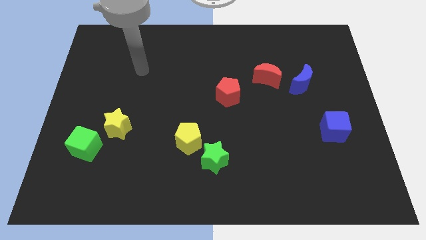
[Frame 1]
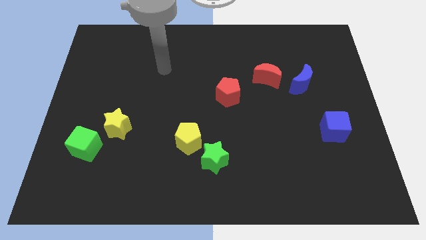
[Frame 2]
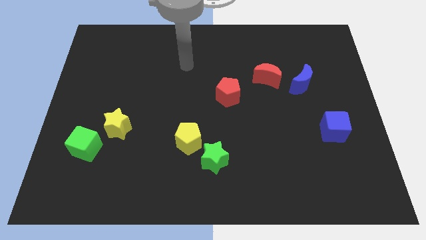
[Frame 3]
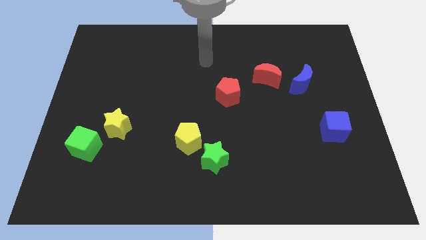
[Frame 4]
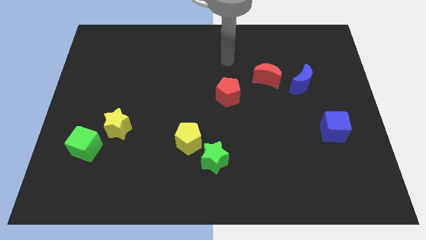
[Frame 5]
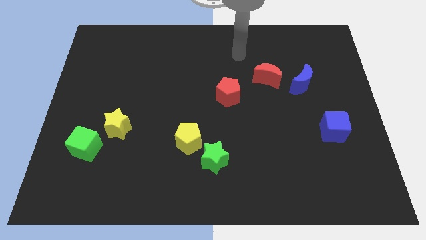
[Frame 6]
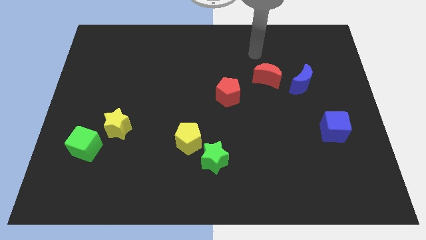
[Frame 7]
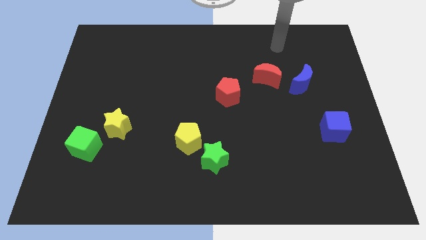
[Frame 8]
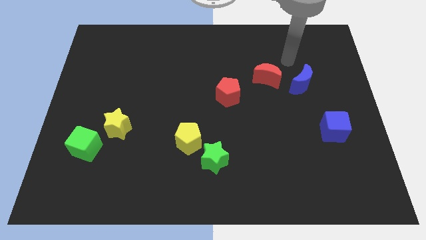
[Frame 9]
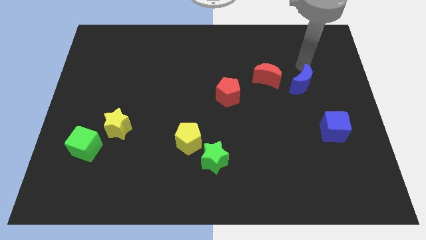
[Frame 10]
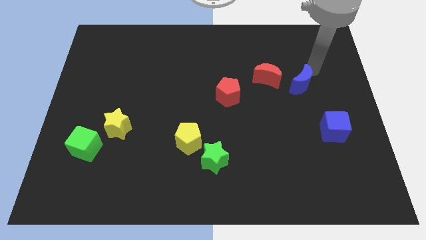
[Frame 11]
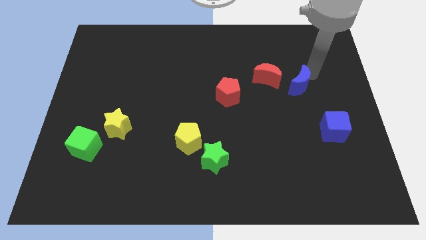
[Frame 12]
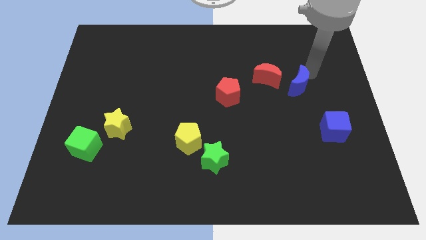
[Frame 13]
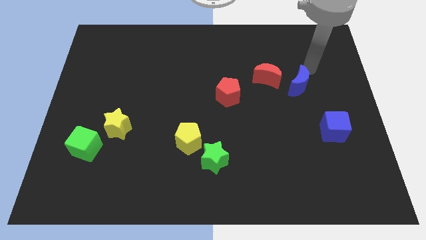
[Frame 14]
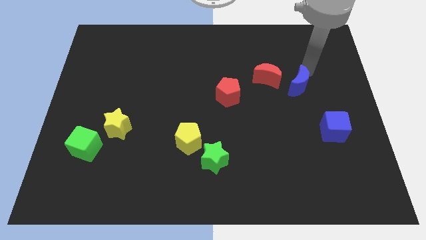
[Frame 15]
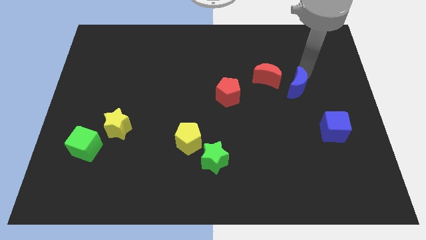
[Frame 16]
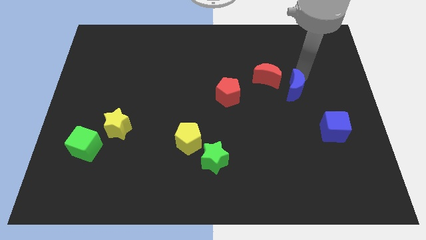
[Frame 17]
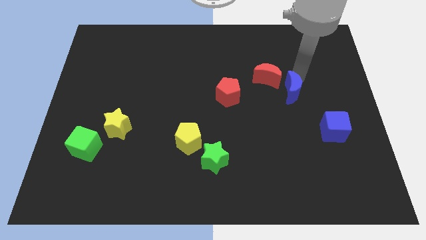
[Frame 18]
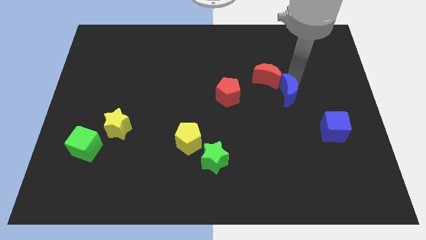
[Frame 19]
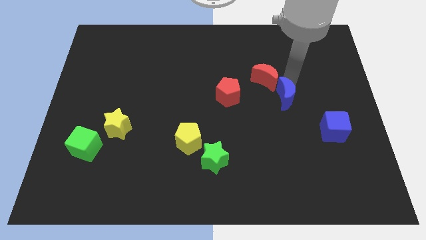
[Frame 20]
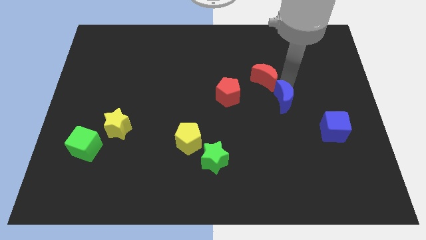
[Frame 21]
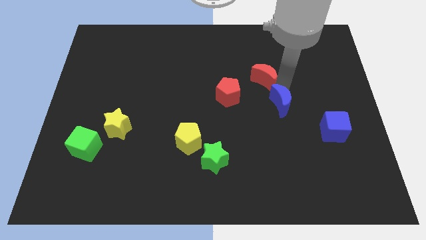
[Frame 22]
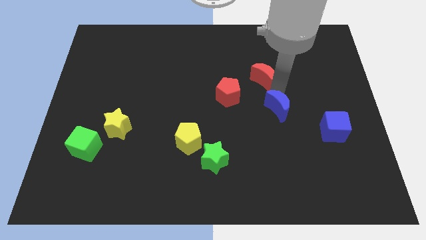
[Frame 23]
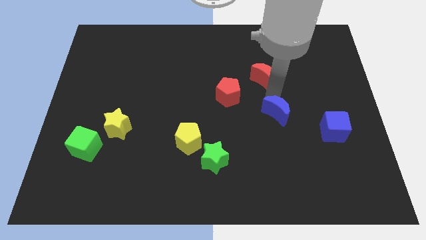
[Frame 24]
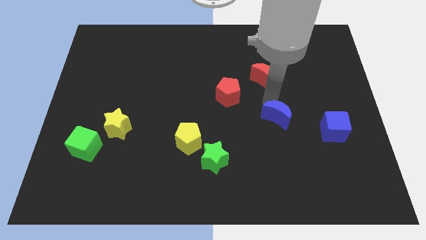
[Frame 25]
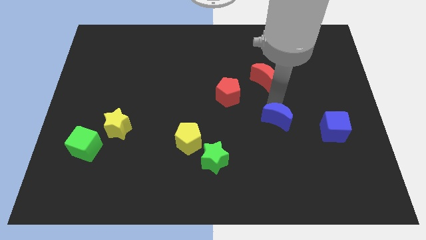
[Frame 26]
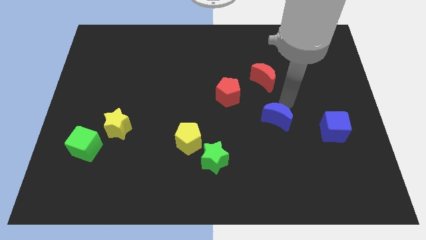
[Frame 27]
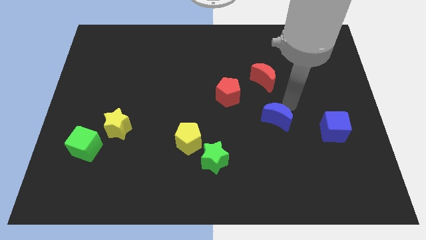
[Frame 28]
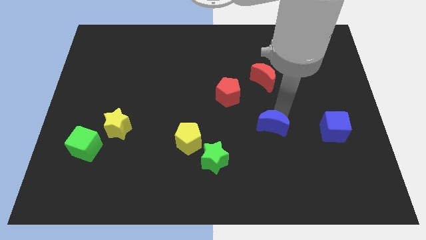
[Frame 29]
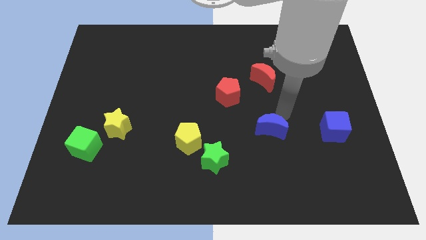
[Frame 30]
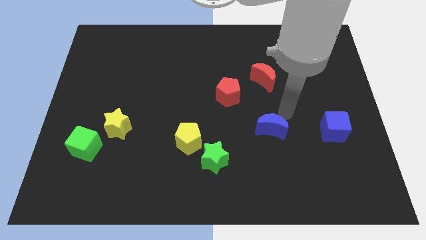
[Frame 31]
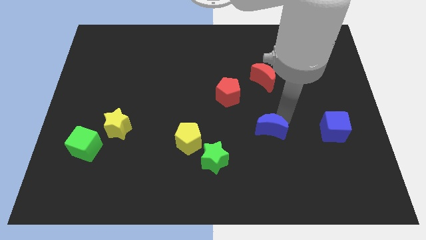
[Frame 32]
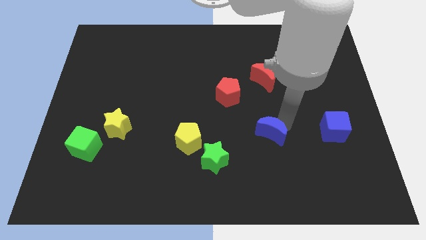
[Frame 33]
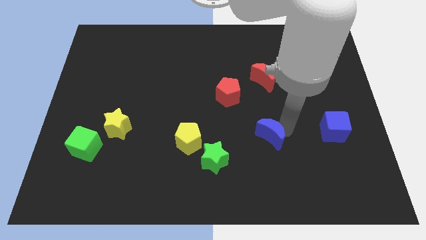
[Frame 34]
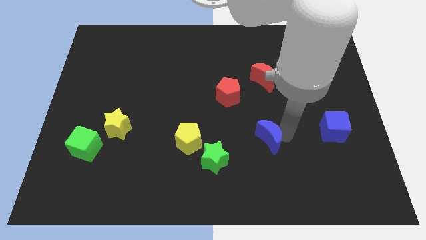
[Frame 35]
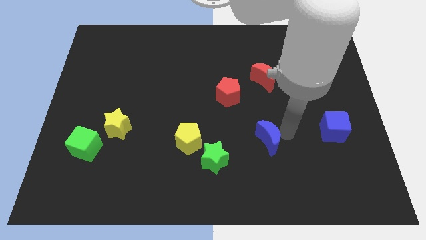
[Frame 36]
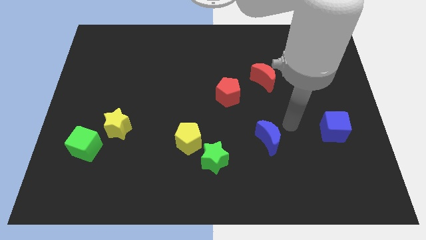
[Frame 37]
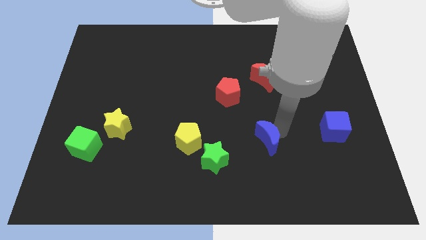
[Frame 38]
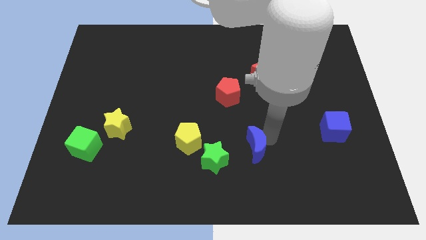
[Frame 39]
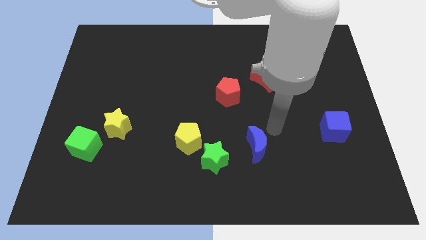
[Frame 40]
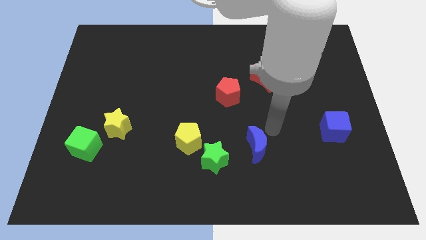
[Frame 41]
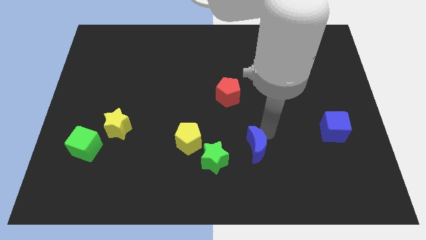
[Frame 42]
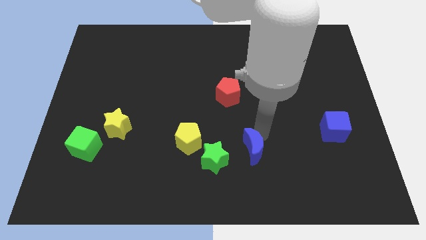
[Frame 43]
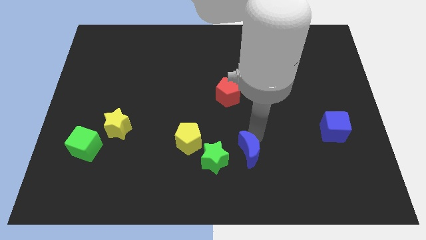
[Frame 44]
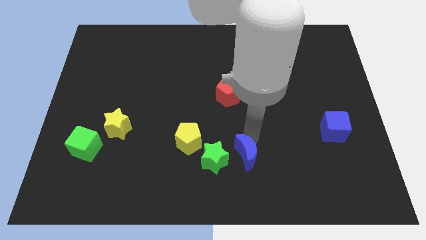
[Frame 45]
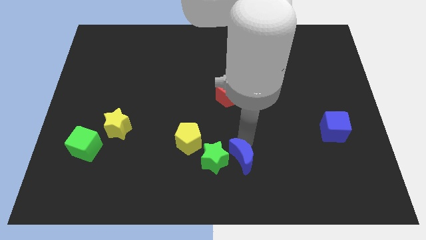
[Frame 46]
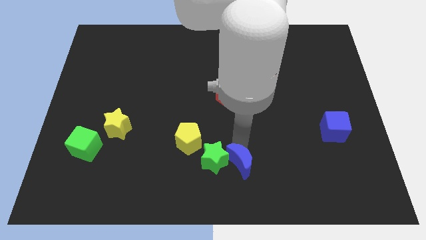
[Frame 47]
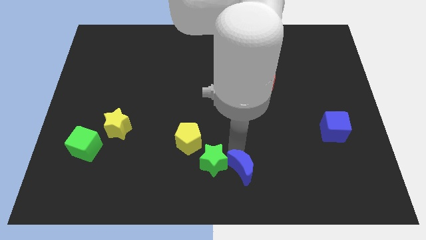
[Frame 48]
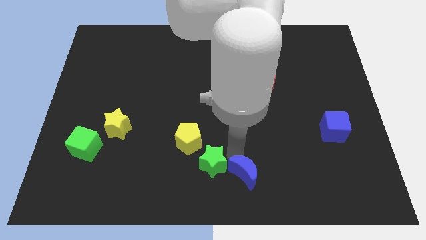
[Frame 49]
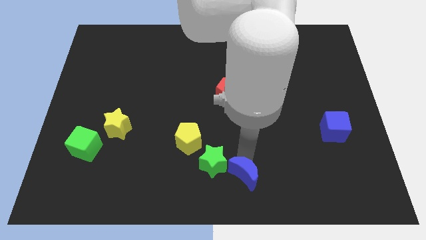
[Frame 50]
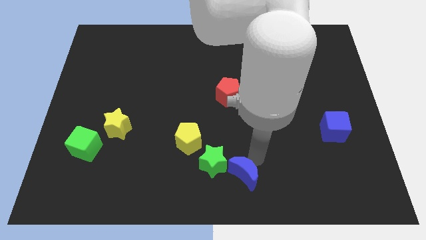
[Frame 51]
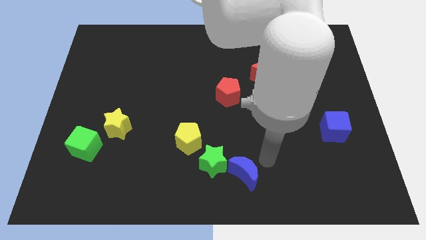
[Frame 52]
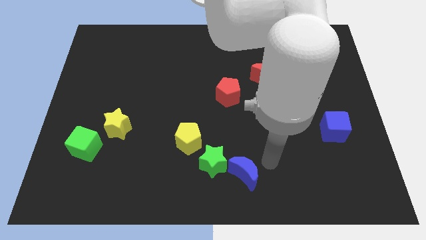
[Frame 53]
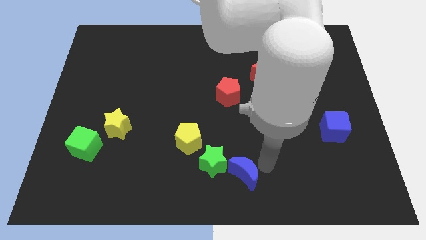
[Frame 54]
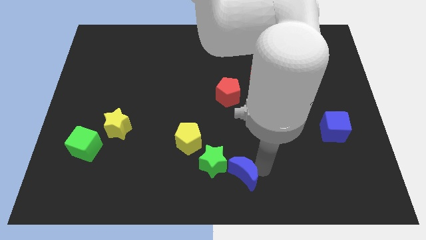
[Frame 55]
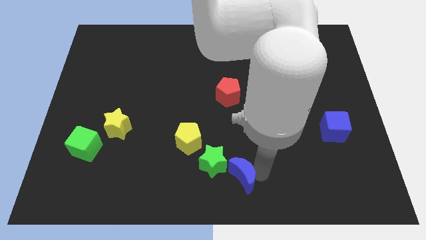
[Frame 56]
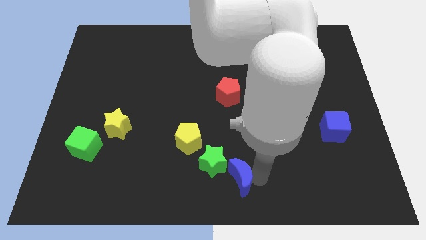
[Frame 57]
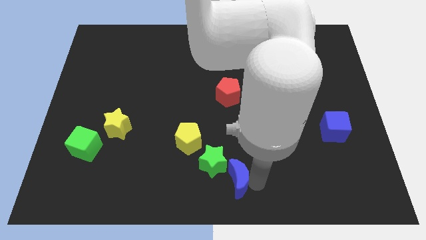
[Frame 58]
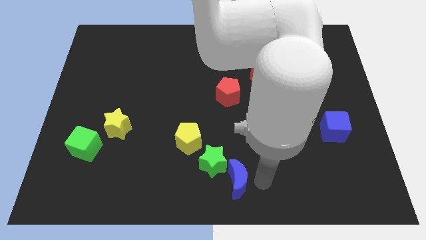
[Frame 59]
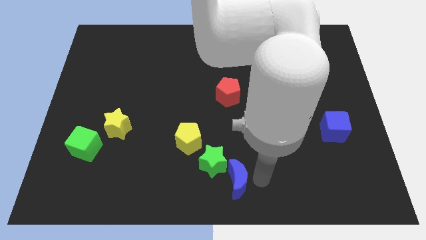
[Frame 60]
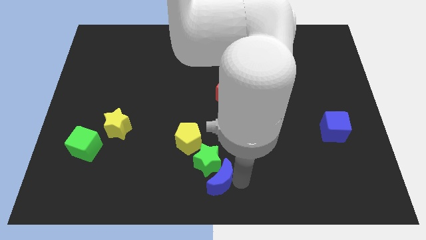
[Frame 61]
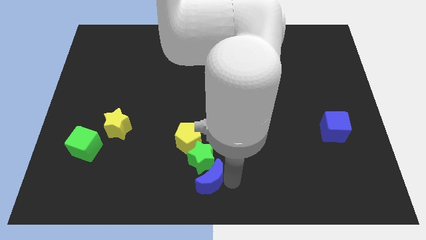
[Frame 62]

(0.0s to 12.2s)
slide the blue moon to the bottom side of the yellow pentagon

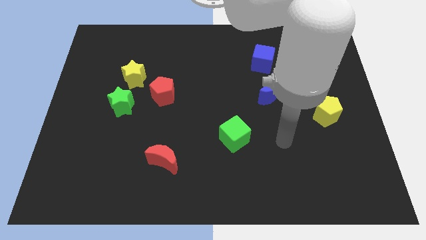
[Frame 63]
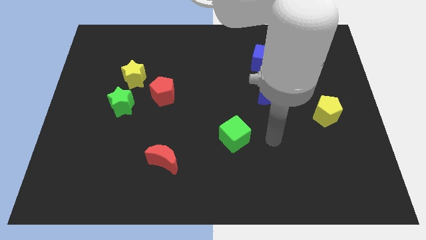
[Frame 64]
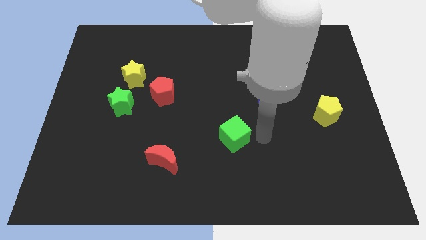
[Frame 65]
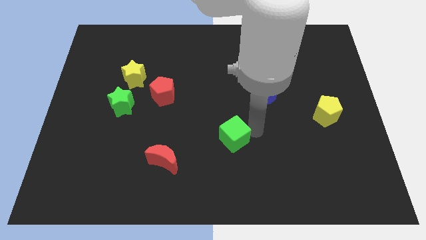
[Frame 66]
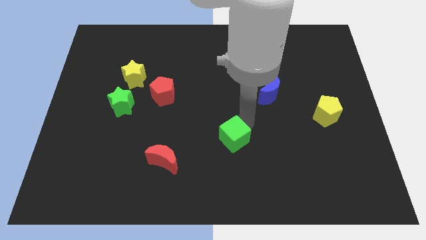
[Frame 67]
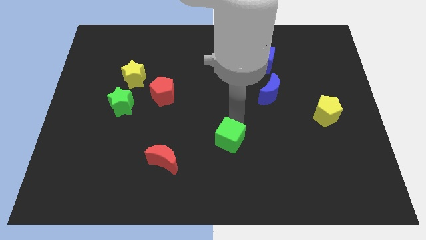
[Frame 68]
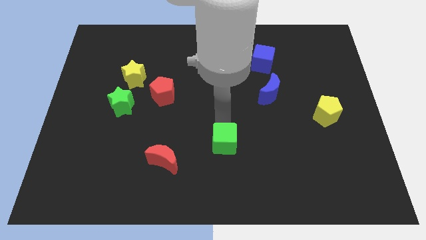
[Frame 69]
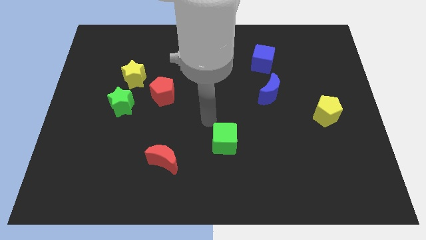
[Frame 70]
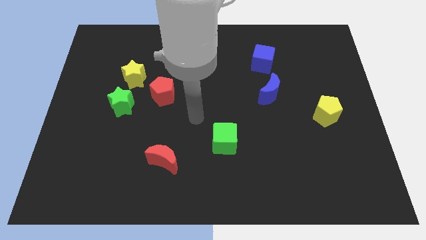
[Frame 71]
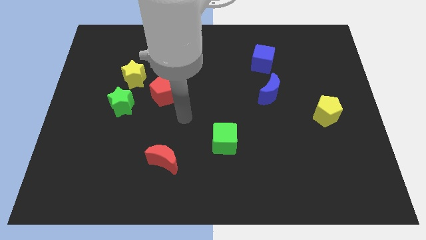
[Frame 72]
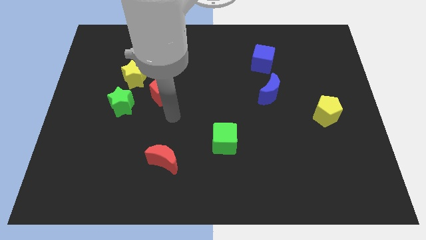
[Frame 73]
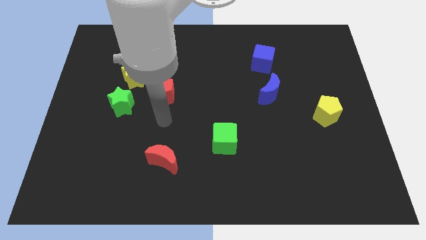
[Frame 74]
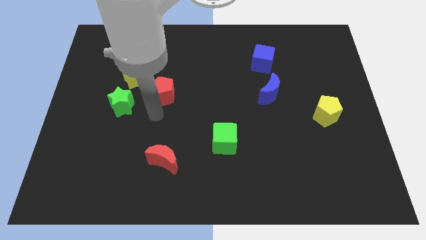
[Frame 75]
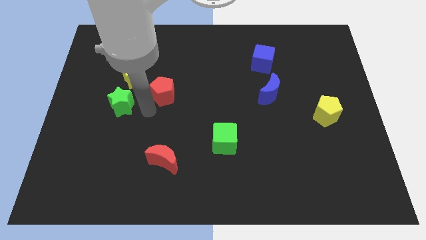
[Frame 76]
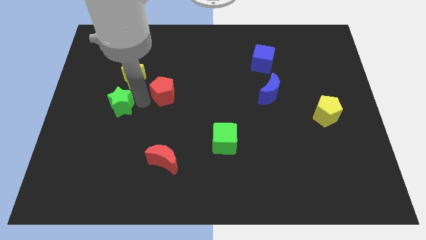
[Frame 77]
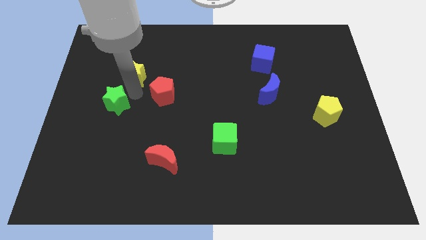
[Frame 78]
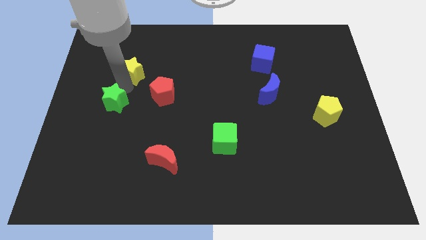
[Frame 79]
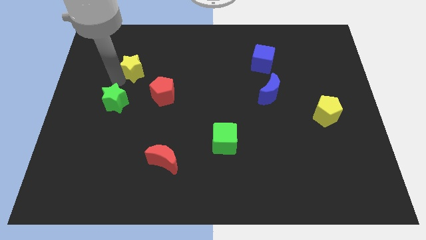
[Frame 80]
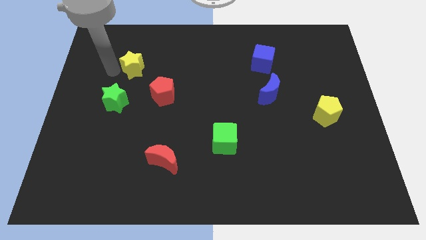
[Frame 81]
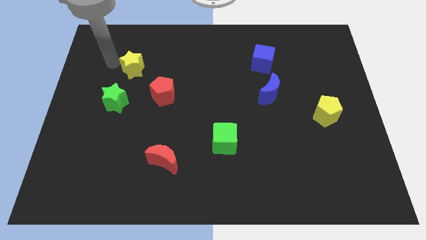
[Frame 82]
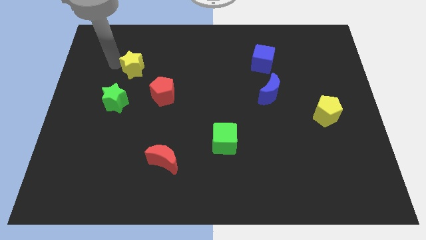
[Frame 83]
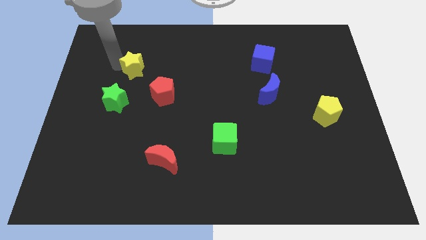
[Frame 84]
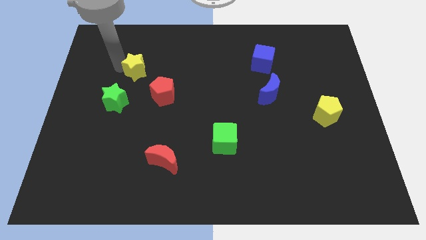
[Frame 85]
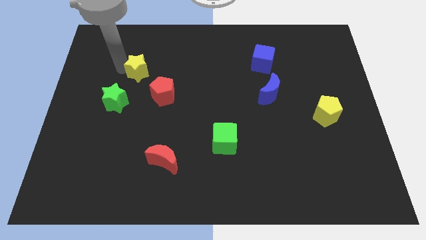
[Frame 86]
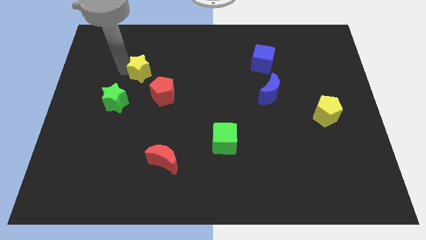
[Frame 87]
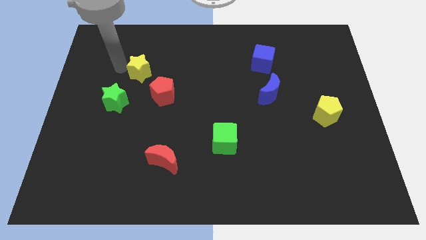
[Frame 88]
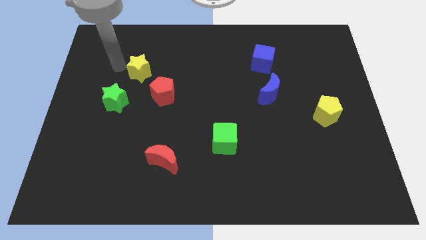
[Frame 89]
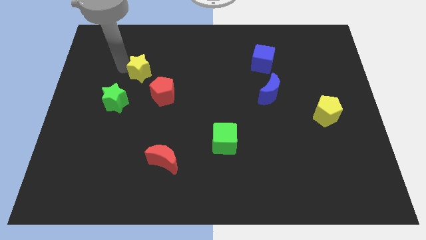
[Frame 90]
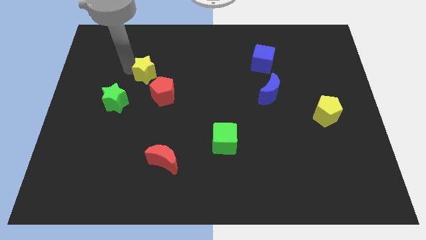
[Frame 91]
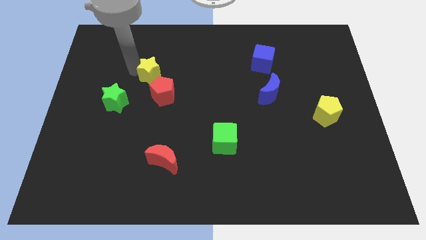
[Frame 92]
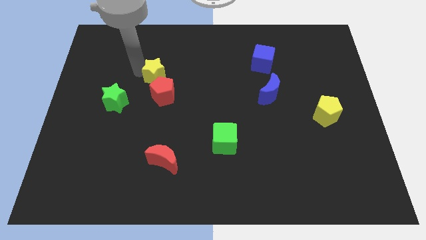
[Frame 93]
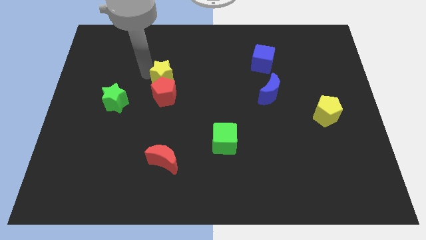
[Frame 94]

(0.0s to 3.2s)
move the yellow star diagonally up and to the right of the red pentagon
